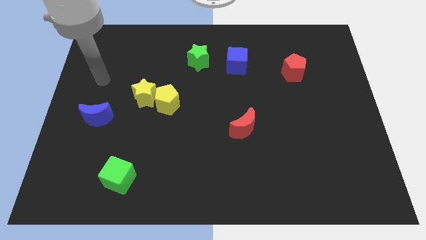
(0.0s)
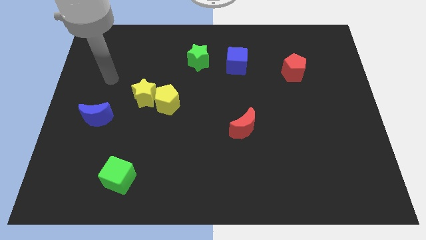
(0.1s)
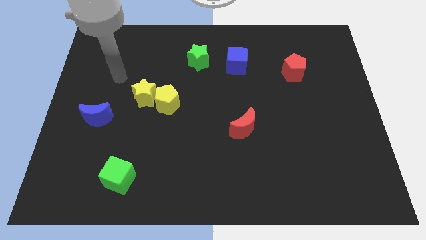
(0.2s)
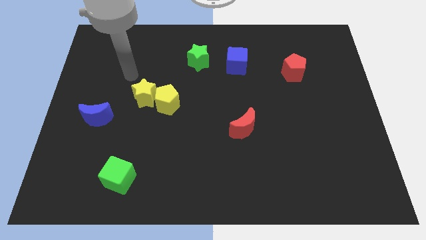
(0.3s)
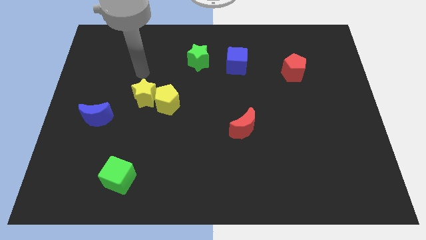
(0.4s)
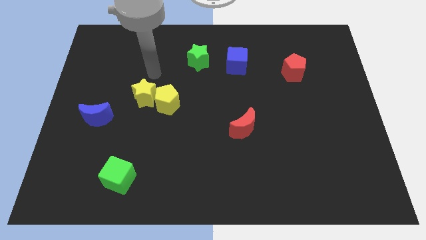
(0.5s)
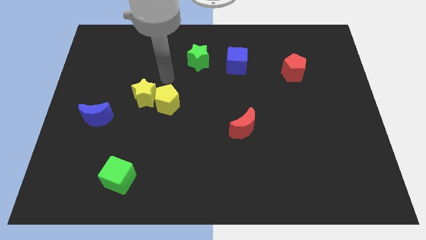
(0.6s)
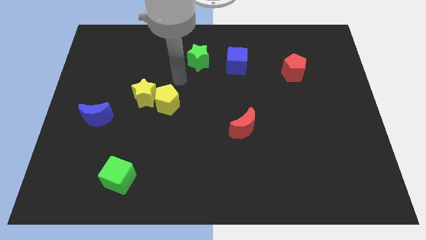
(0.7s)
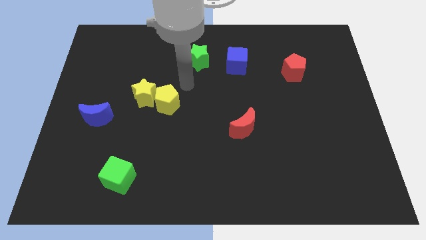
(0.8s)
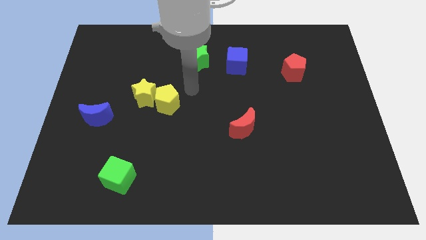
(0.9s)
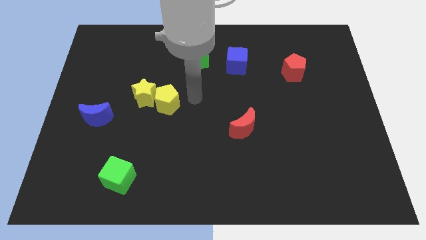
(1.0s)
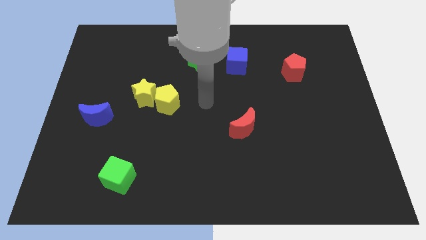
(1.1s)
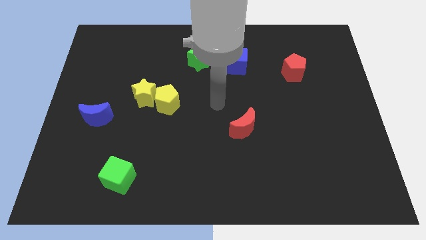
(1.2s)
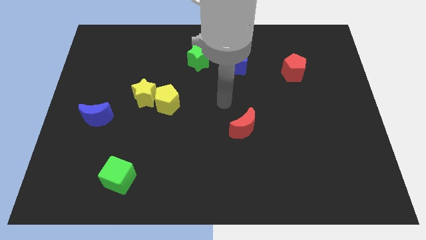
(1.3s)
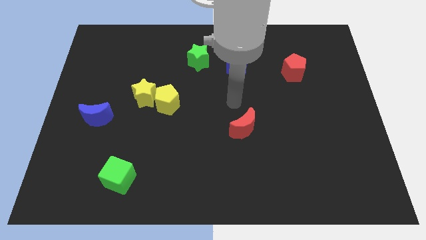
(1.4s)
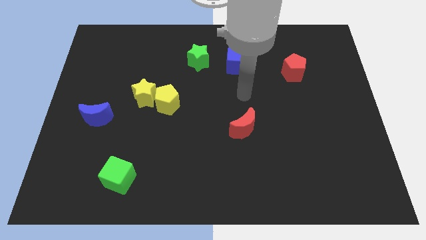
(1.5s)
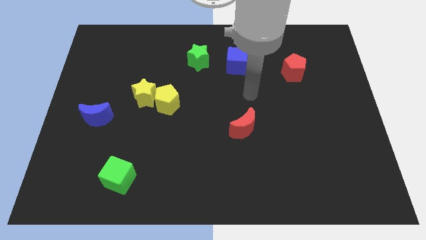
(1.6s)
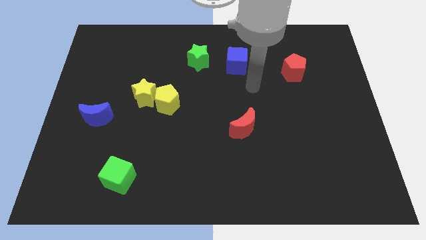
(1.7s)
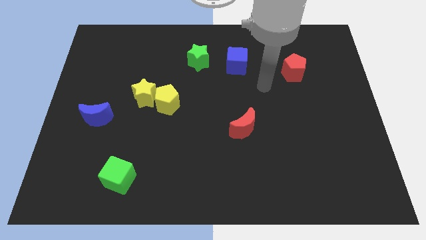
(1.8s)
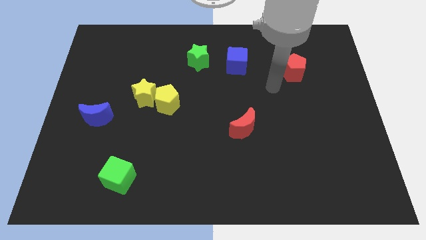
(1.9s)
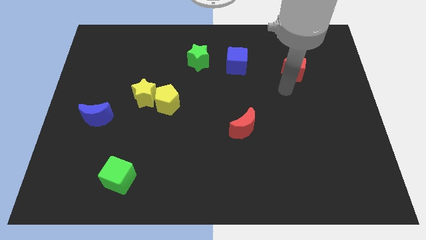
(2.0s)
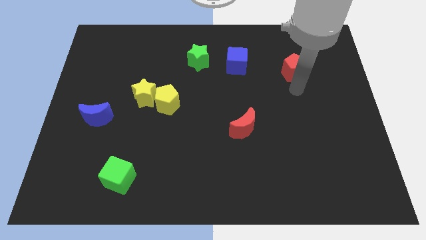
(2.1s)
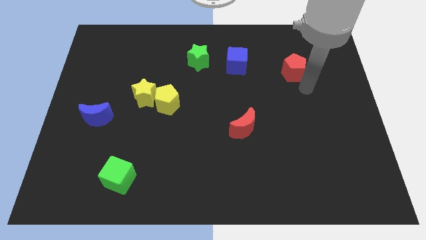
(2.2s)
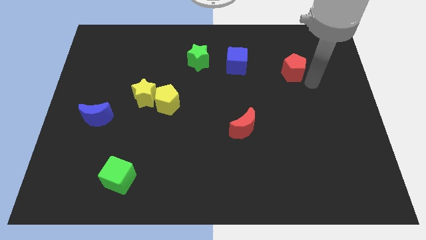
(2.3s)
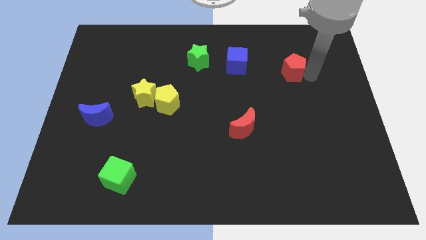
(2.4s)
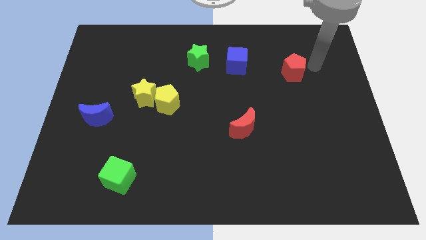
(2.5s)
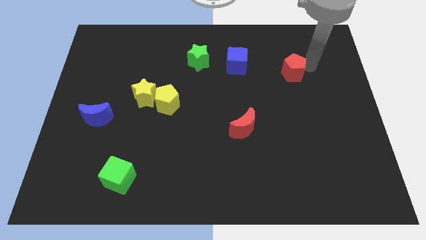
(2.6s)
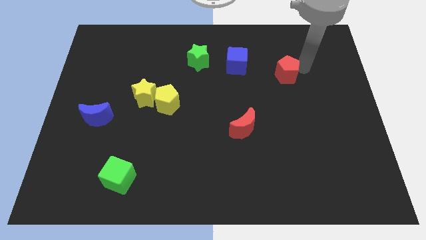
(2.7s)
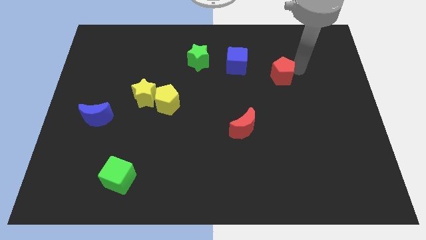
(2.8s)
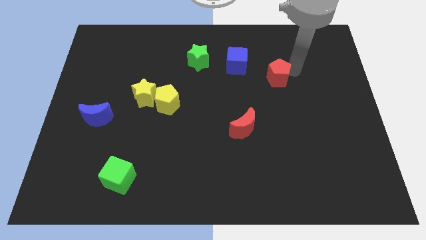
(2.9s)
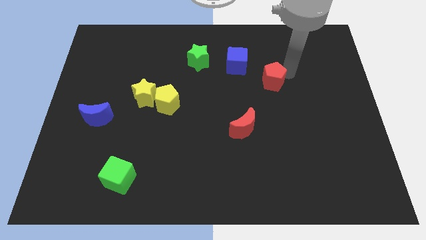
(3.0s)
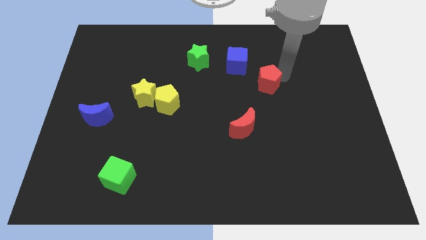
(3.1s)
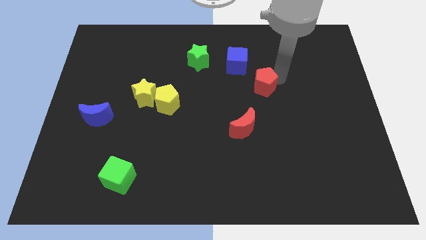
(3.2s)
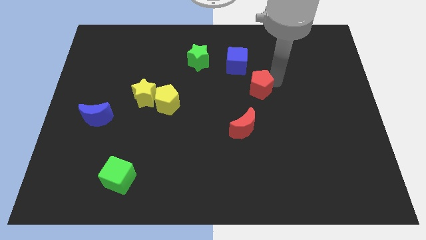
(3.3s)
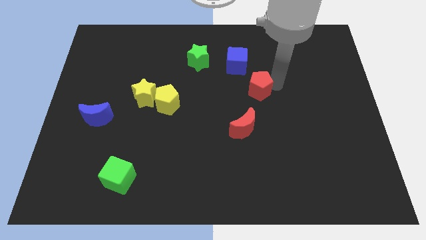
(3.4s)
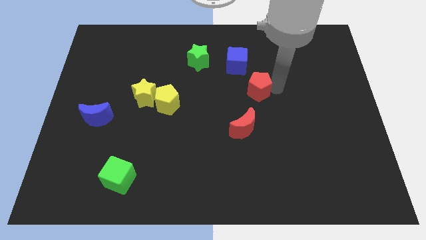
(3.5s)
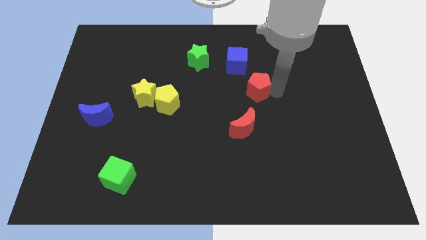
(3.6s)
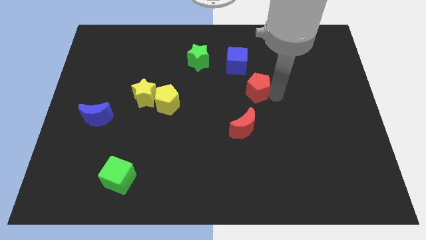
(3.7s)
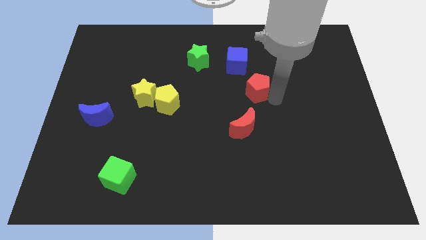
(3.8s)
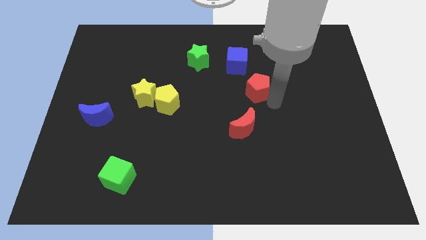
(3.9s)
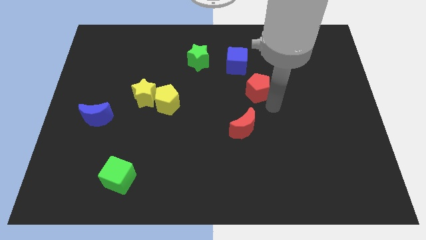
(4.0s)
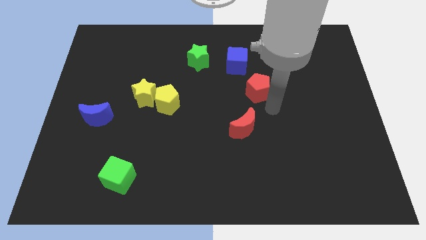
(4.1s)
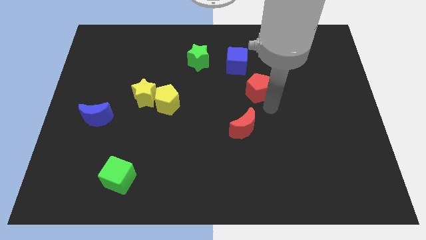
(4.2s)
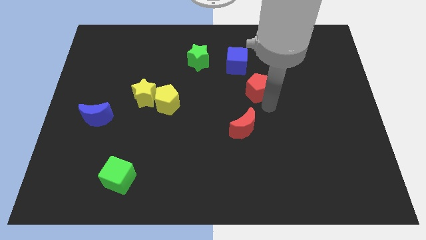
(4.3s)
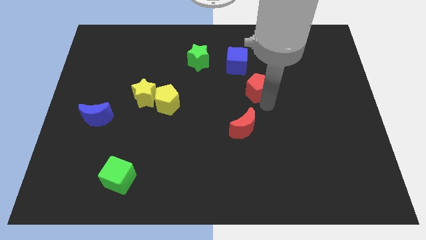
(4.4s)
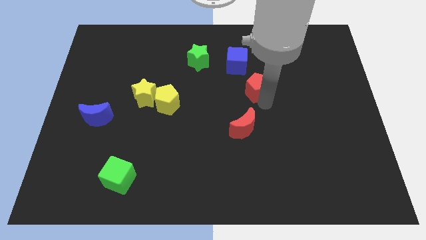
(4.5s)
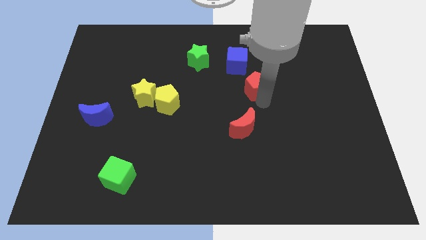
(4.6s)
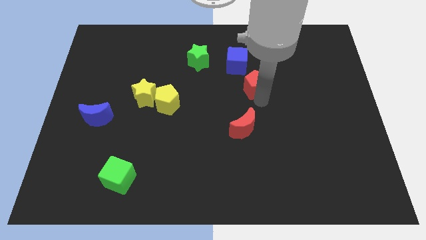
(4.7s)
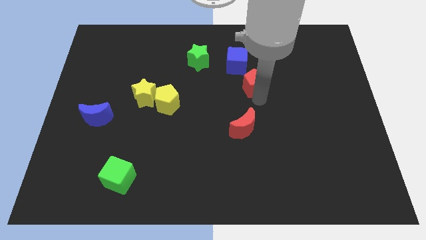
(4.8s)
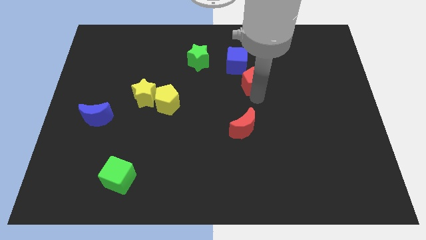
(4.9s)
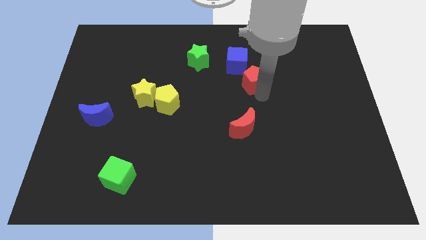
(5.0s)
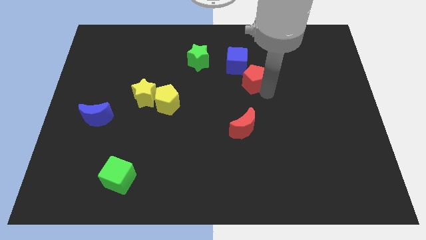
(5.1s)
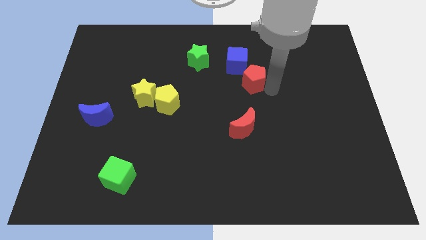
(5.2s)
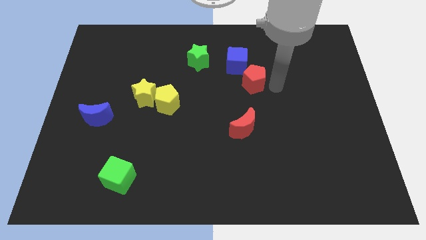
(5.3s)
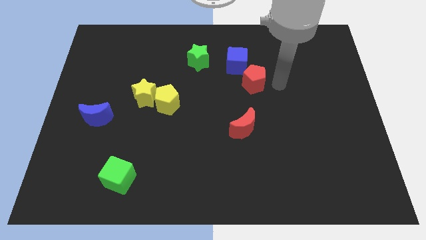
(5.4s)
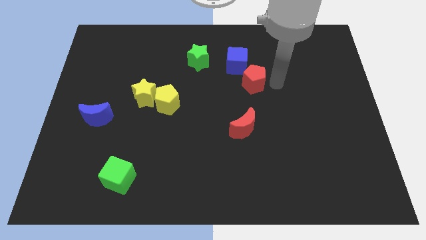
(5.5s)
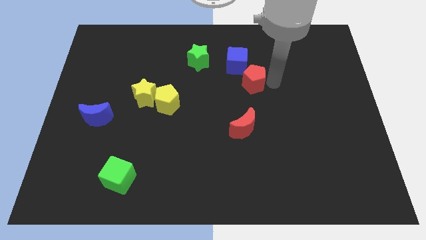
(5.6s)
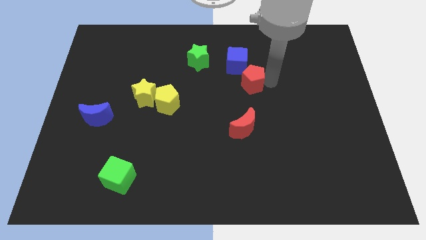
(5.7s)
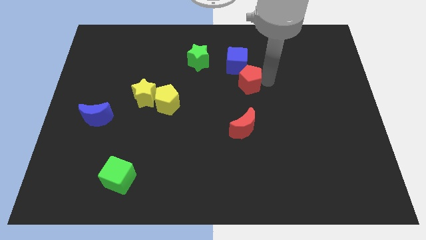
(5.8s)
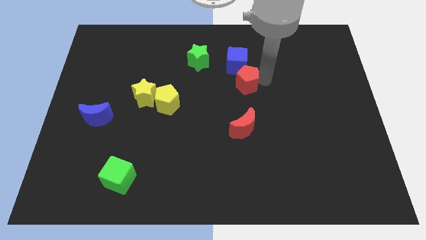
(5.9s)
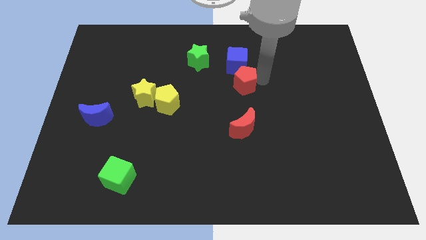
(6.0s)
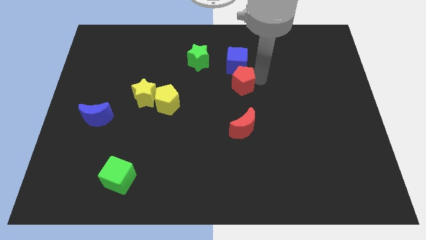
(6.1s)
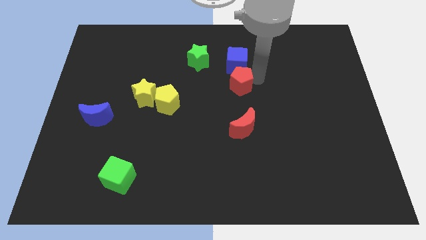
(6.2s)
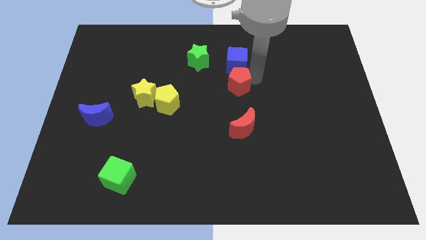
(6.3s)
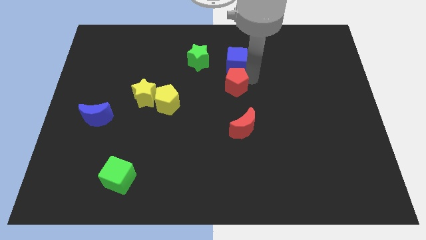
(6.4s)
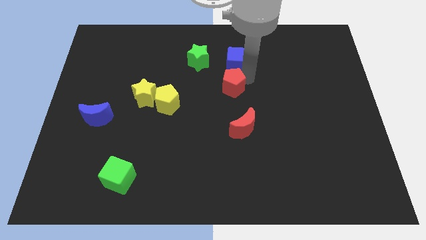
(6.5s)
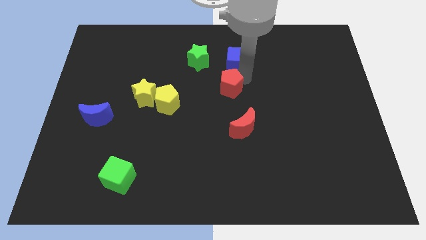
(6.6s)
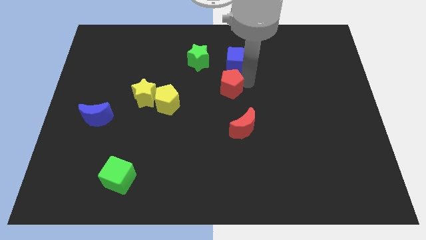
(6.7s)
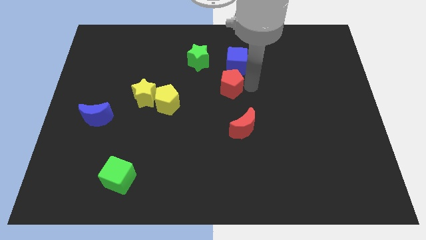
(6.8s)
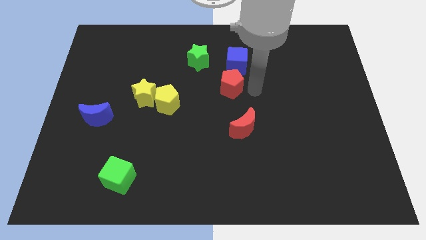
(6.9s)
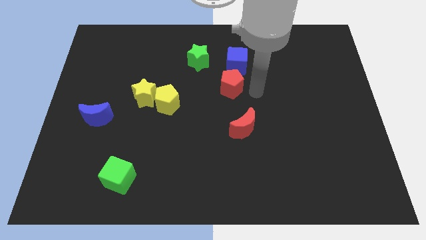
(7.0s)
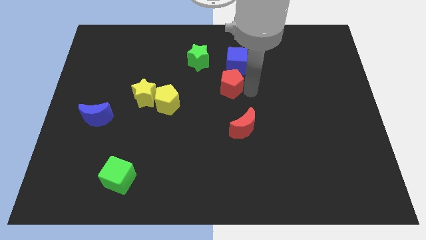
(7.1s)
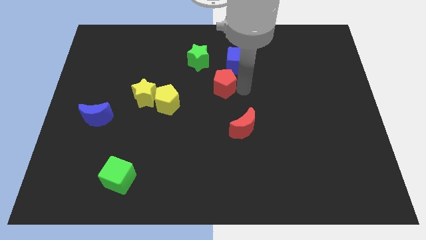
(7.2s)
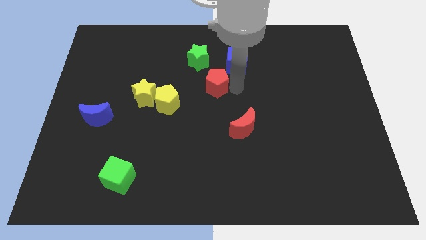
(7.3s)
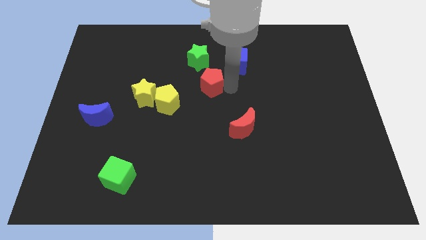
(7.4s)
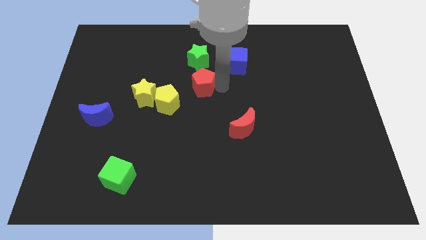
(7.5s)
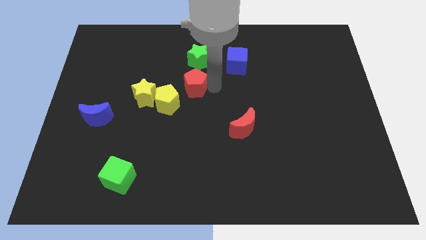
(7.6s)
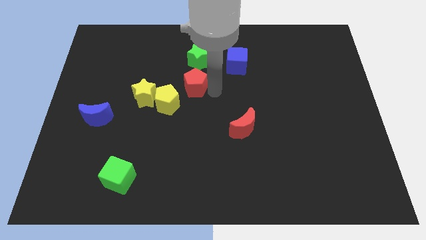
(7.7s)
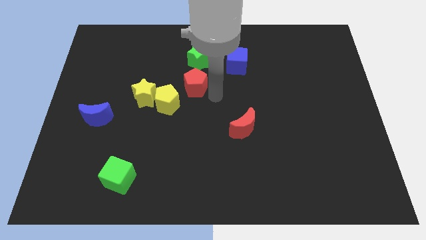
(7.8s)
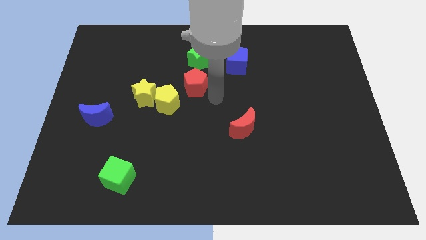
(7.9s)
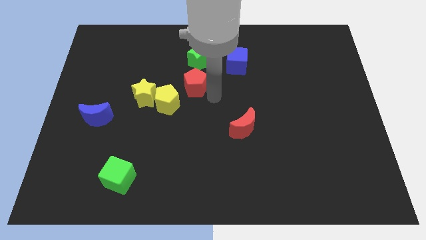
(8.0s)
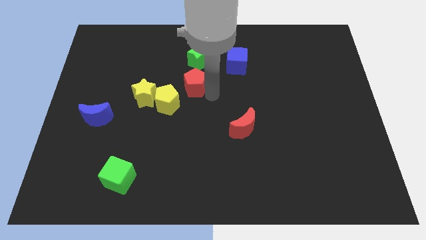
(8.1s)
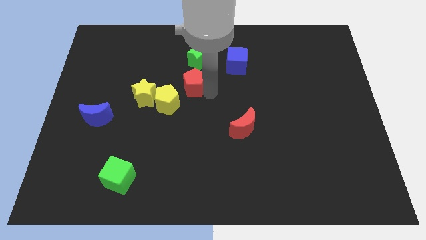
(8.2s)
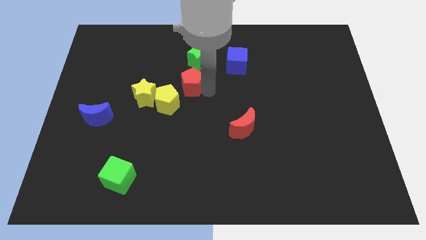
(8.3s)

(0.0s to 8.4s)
move the red pentagon to the bottom left side of the green star
